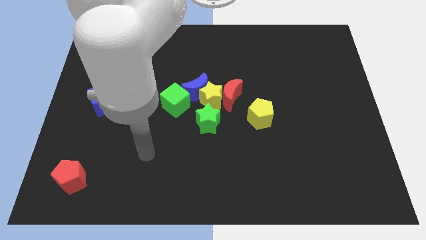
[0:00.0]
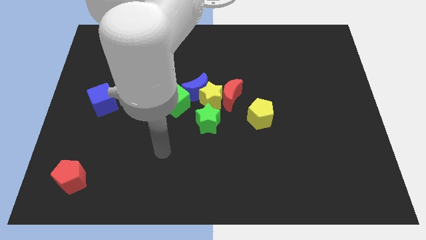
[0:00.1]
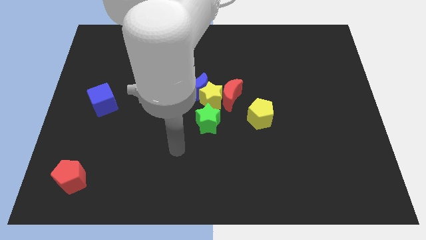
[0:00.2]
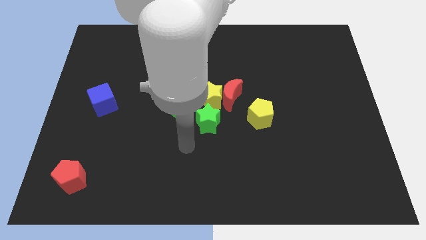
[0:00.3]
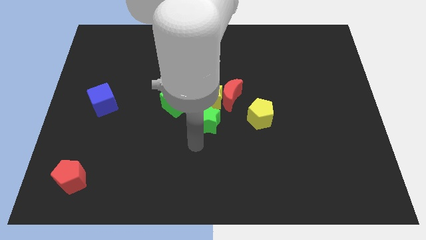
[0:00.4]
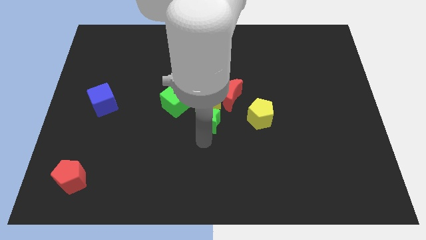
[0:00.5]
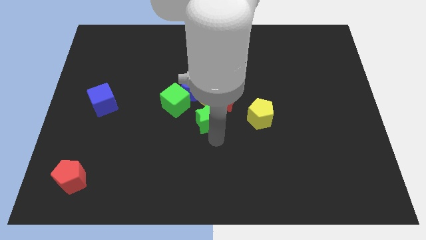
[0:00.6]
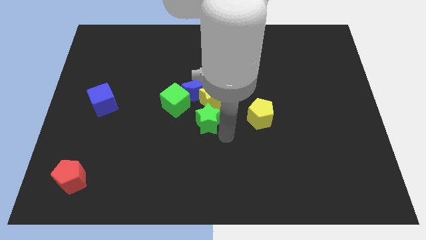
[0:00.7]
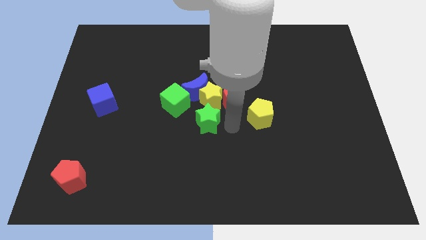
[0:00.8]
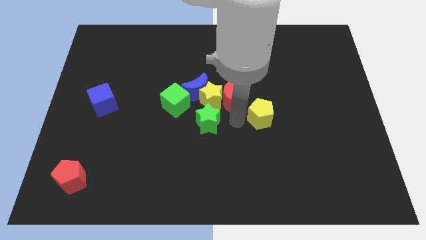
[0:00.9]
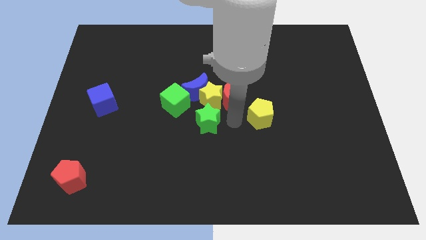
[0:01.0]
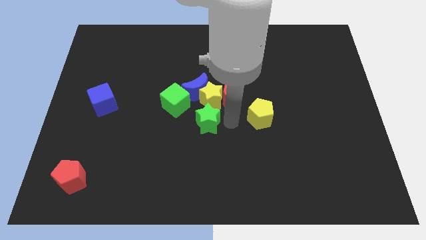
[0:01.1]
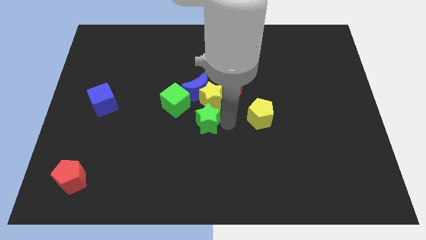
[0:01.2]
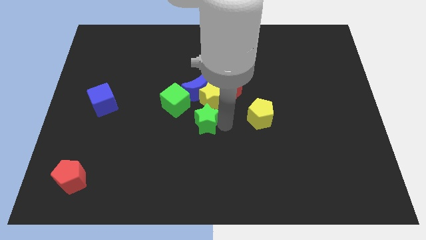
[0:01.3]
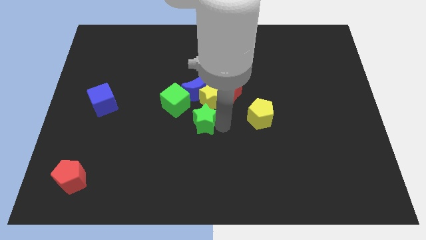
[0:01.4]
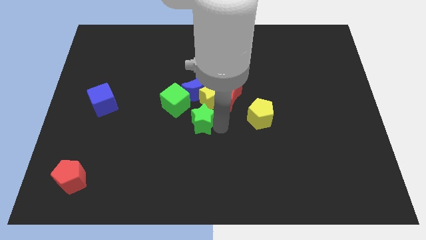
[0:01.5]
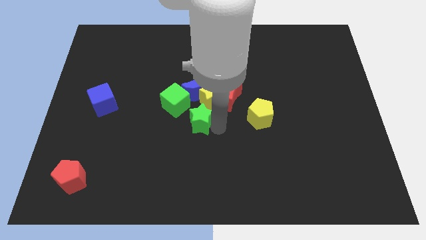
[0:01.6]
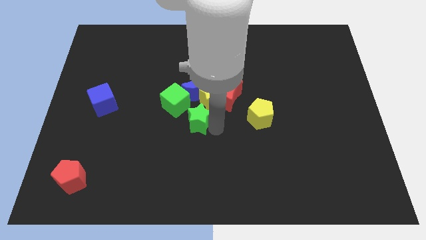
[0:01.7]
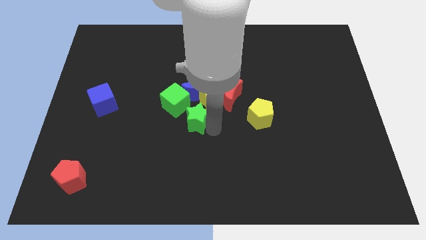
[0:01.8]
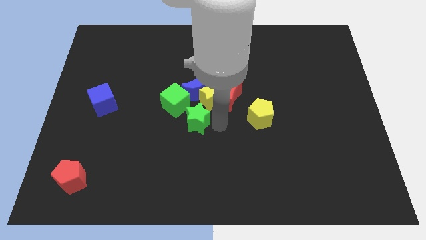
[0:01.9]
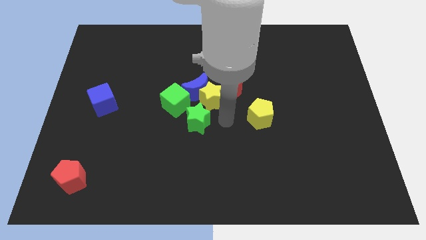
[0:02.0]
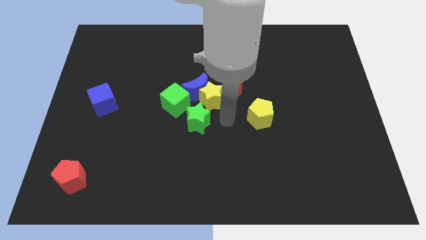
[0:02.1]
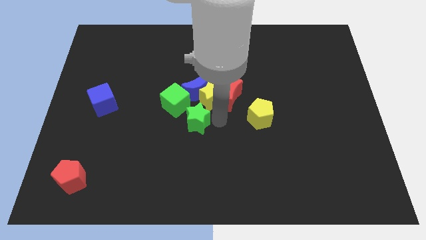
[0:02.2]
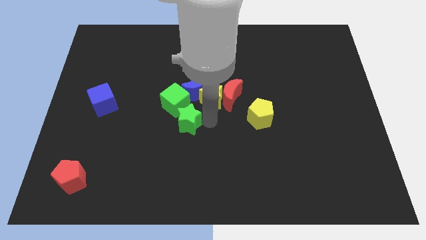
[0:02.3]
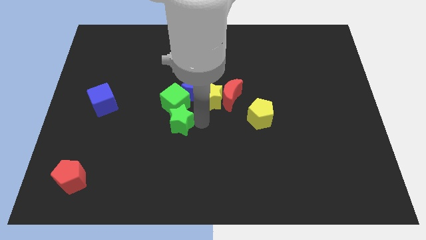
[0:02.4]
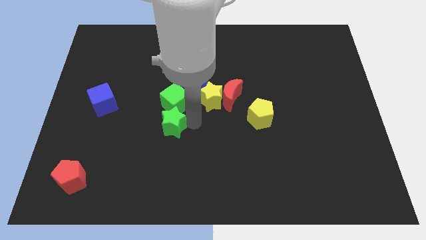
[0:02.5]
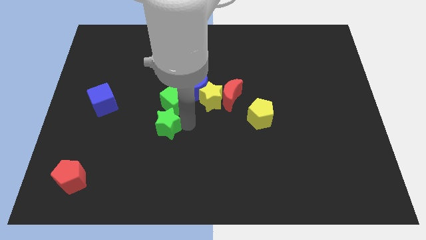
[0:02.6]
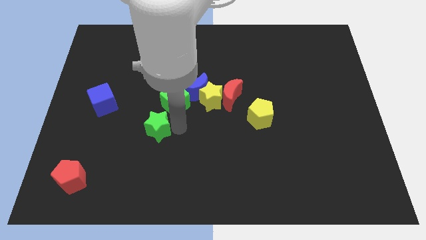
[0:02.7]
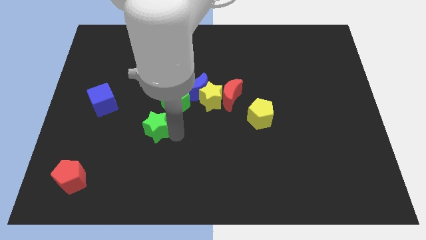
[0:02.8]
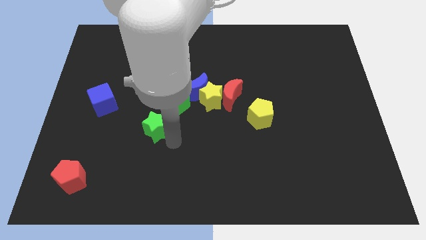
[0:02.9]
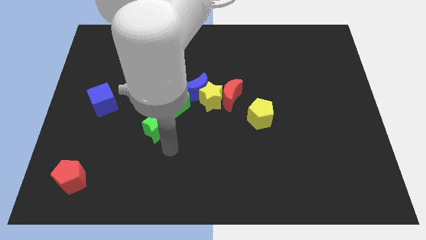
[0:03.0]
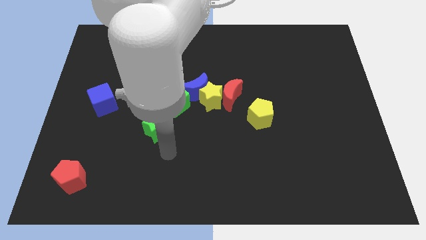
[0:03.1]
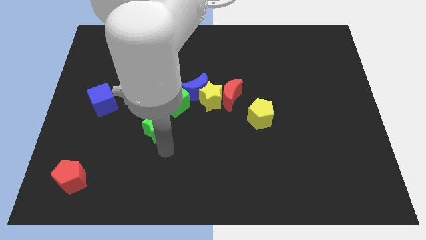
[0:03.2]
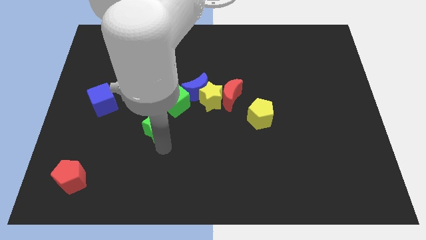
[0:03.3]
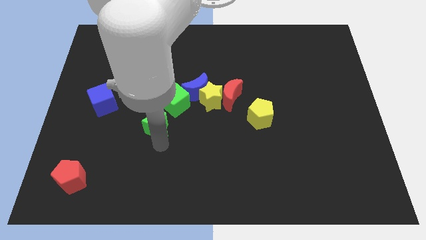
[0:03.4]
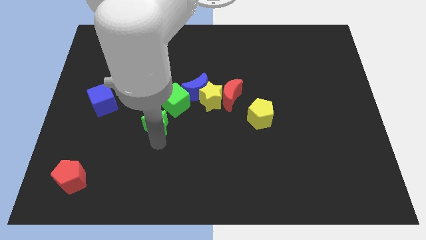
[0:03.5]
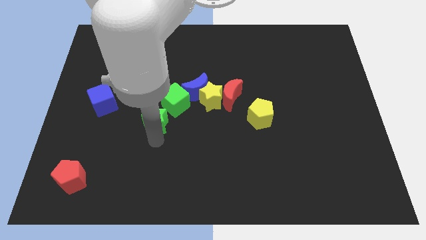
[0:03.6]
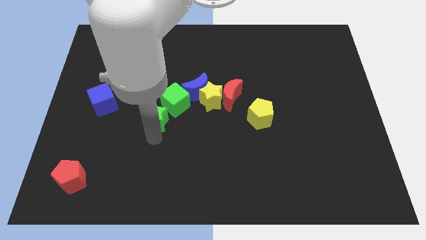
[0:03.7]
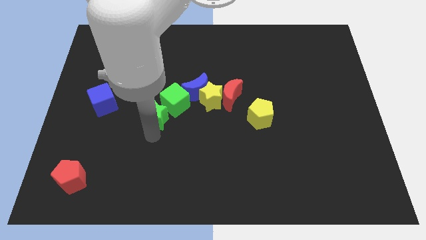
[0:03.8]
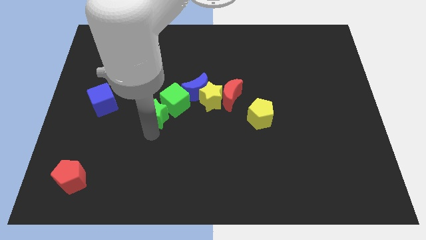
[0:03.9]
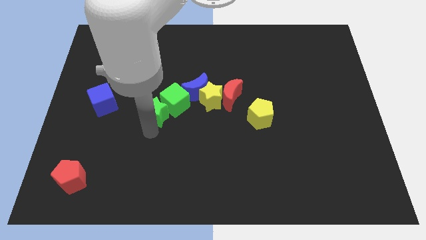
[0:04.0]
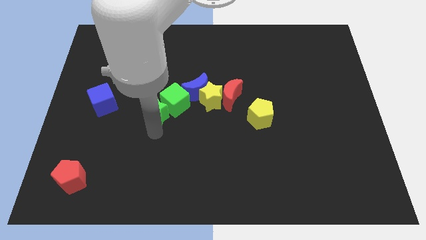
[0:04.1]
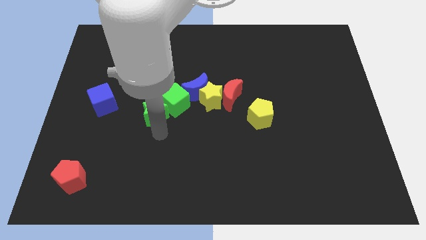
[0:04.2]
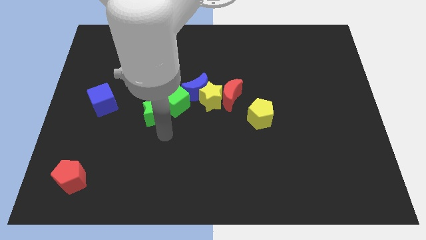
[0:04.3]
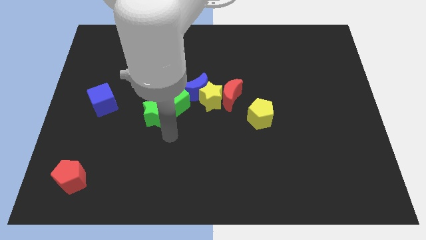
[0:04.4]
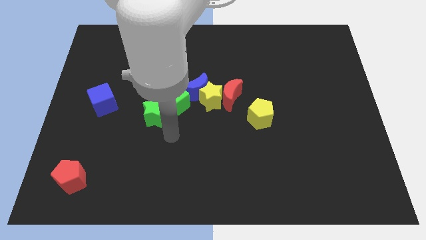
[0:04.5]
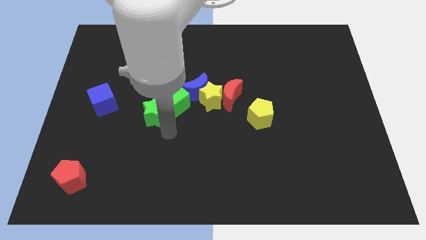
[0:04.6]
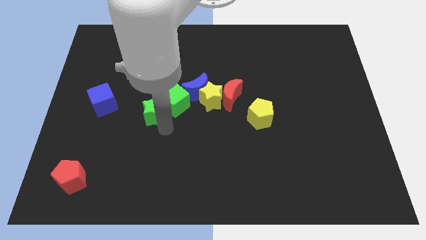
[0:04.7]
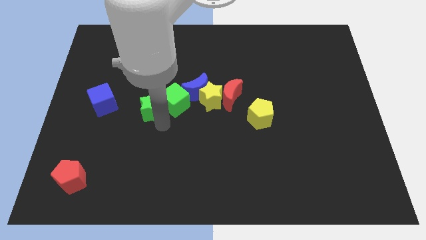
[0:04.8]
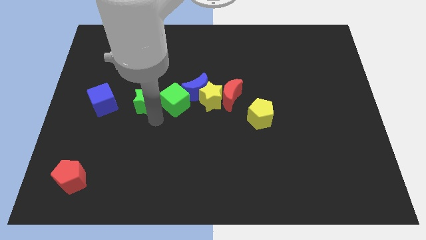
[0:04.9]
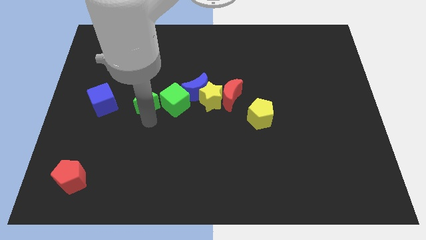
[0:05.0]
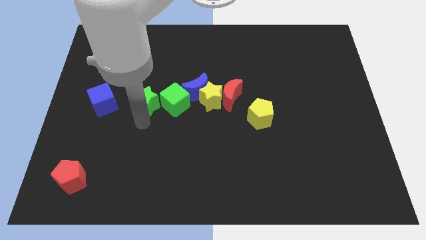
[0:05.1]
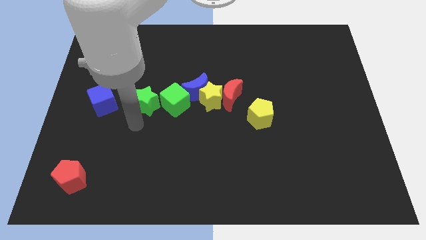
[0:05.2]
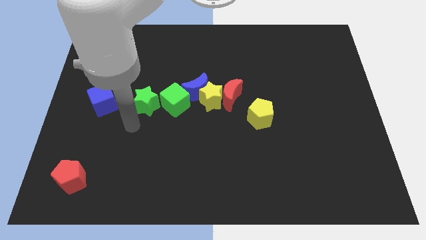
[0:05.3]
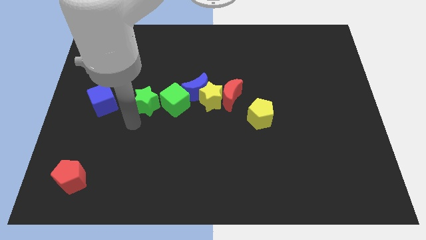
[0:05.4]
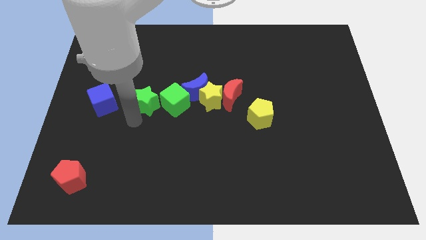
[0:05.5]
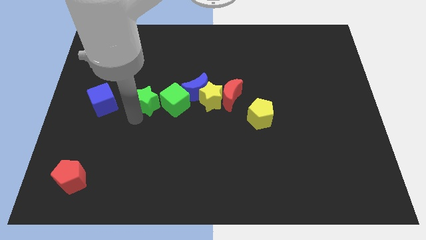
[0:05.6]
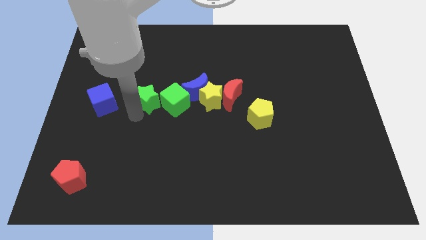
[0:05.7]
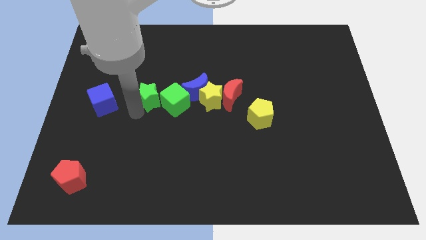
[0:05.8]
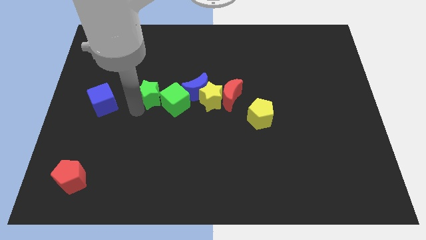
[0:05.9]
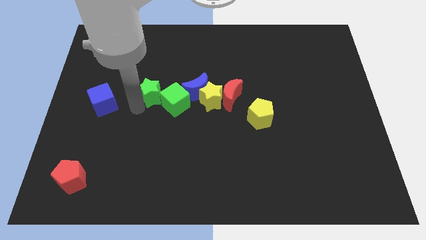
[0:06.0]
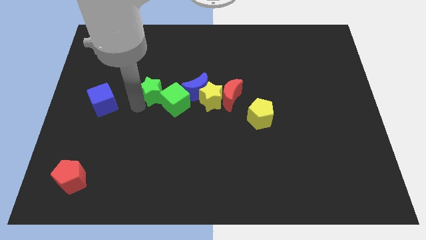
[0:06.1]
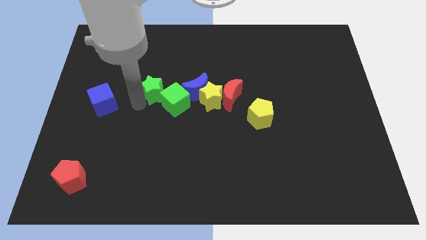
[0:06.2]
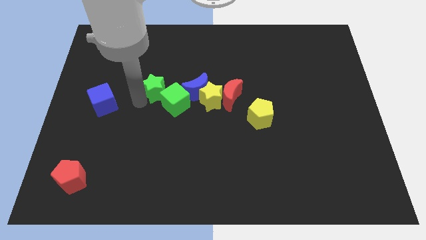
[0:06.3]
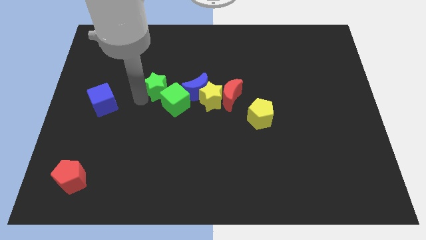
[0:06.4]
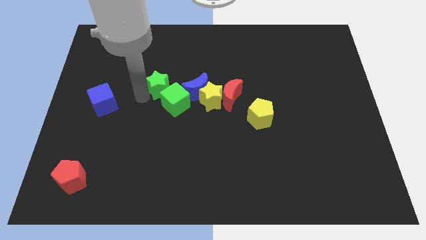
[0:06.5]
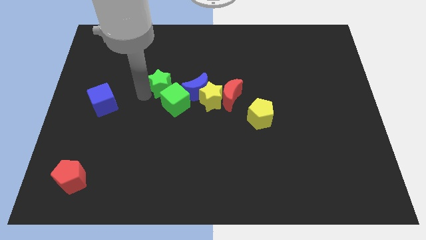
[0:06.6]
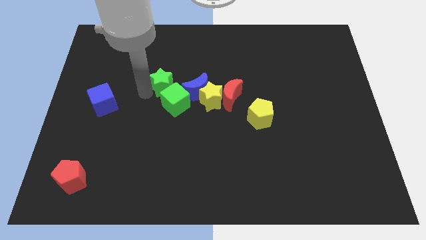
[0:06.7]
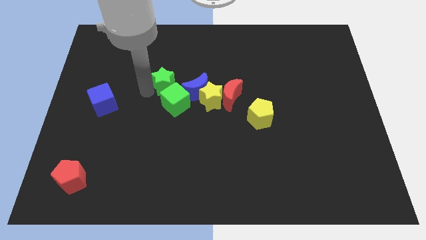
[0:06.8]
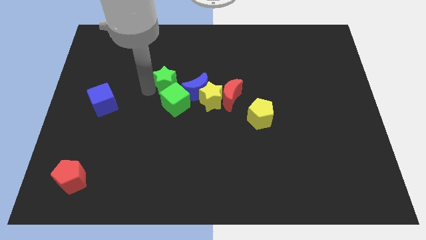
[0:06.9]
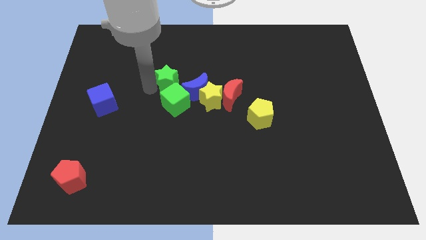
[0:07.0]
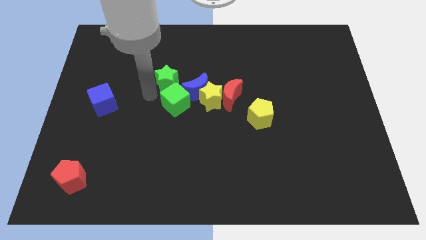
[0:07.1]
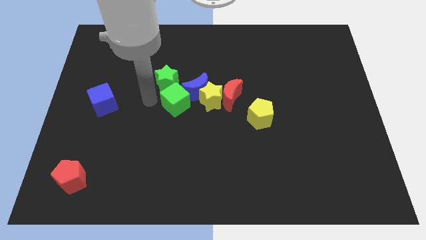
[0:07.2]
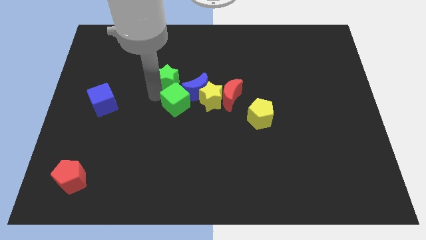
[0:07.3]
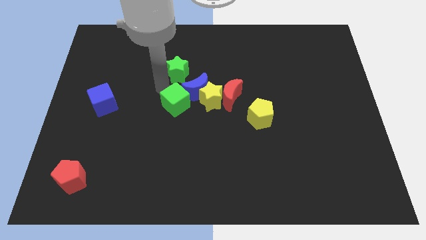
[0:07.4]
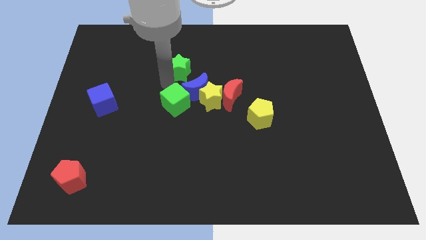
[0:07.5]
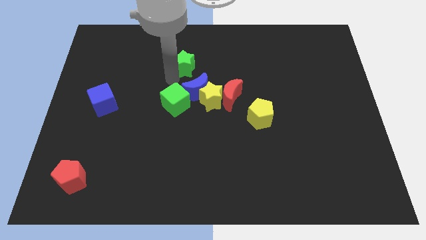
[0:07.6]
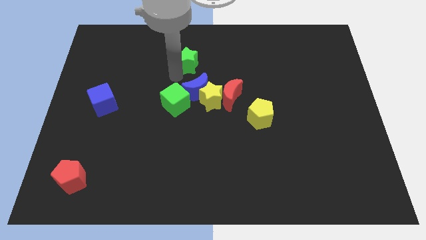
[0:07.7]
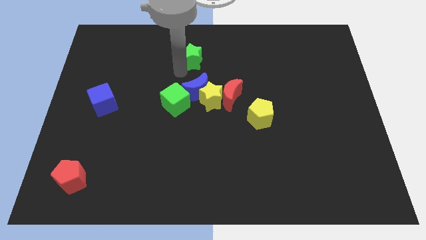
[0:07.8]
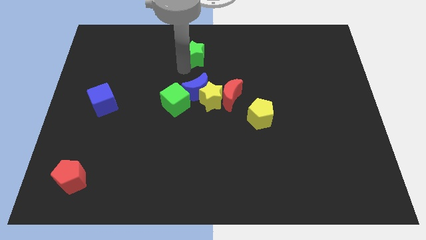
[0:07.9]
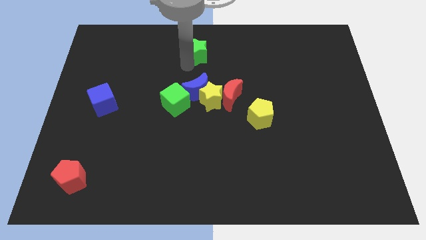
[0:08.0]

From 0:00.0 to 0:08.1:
move the green star to the towards your base
